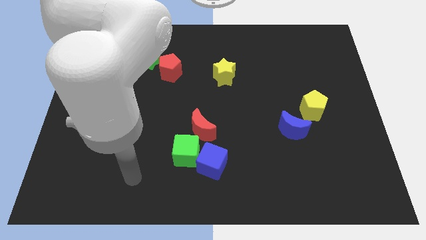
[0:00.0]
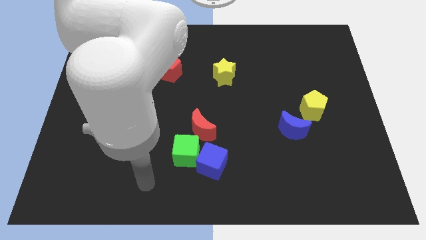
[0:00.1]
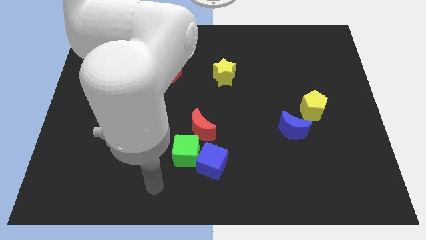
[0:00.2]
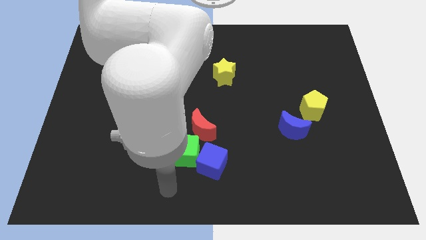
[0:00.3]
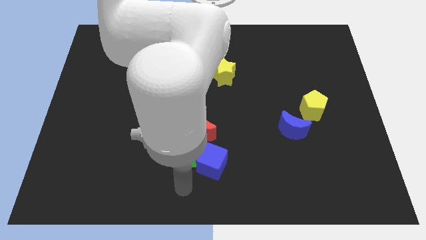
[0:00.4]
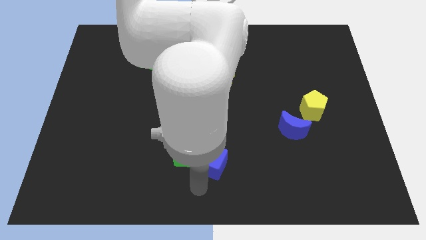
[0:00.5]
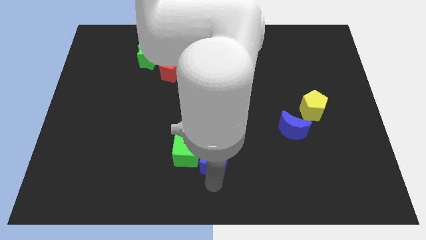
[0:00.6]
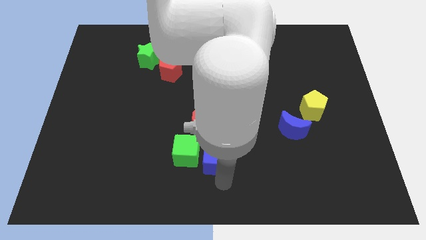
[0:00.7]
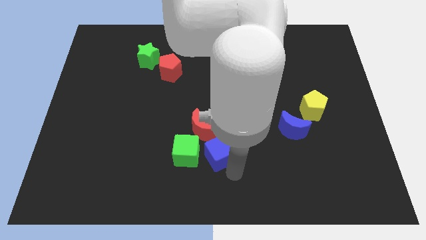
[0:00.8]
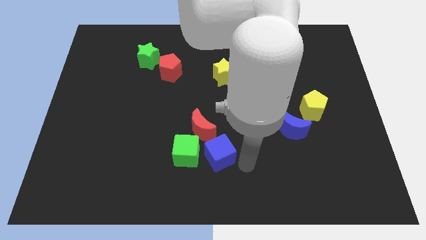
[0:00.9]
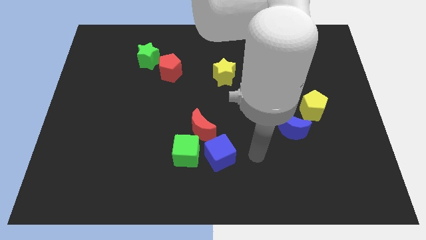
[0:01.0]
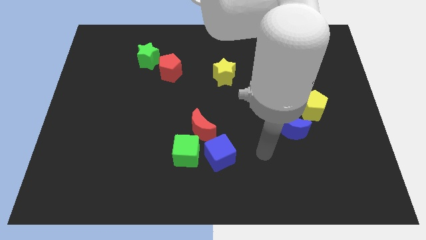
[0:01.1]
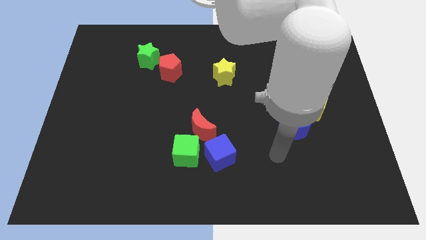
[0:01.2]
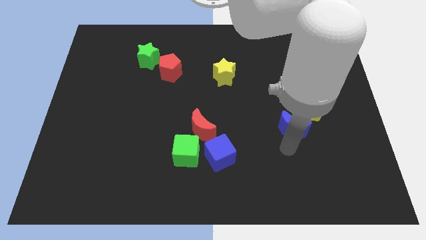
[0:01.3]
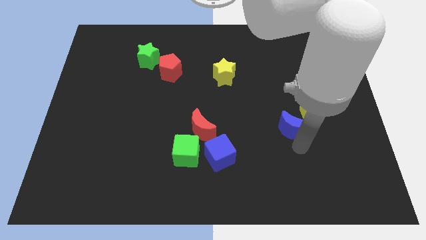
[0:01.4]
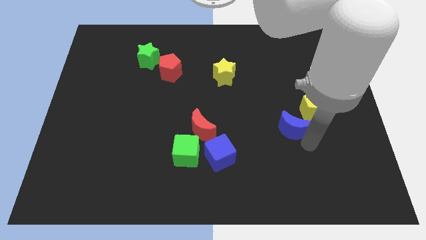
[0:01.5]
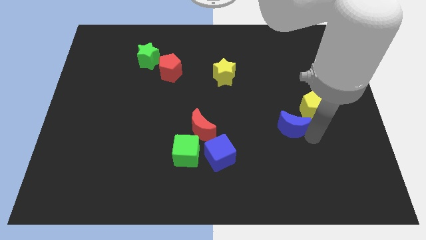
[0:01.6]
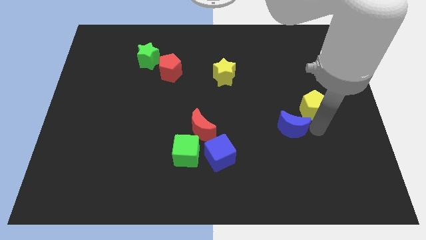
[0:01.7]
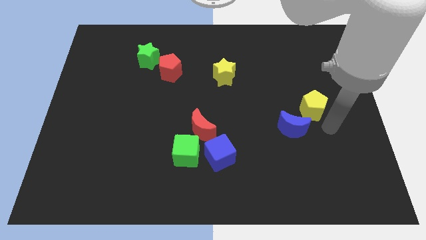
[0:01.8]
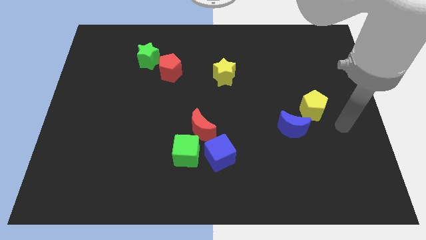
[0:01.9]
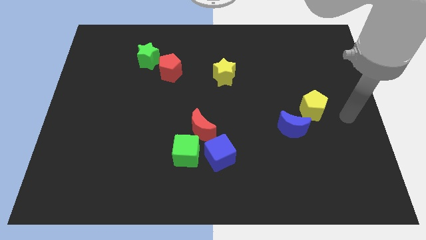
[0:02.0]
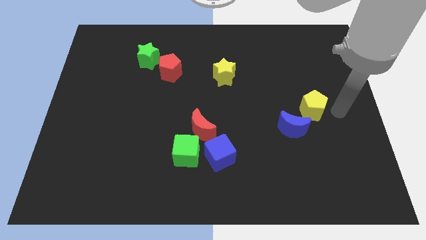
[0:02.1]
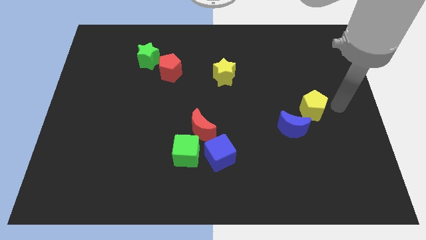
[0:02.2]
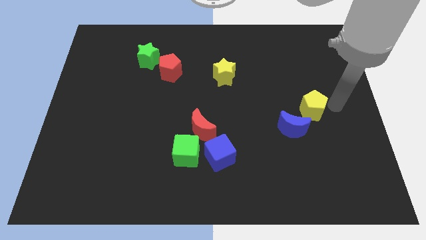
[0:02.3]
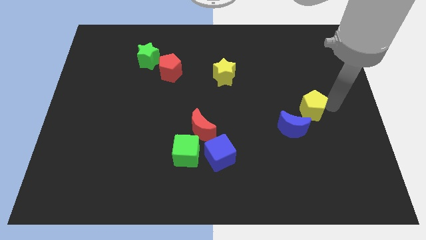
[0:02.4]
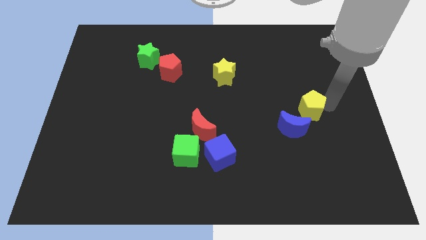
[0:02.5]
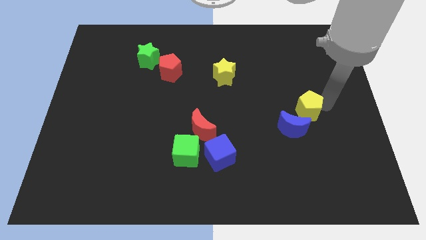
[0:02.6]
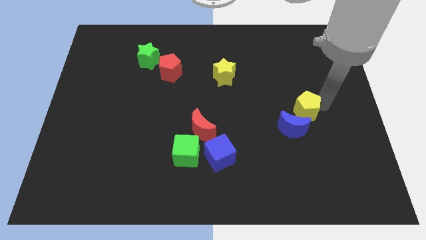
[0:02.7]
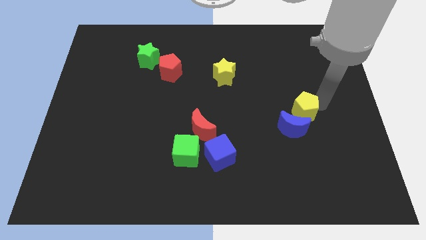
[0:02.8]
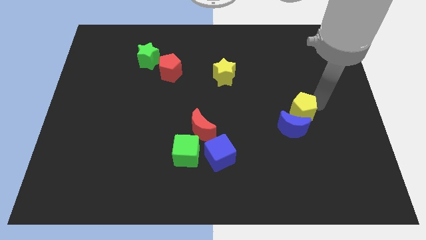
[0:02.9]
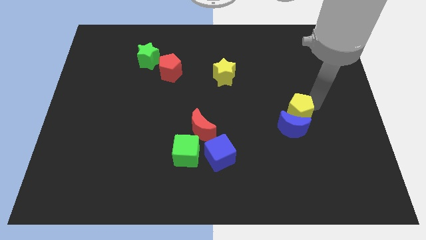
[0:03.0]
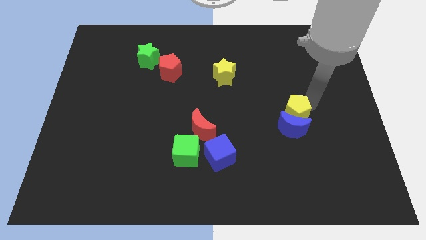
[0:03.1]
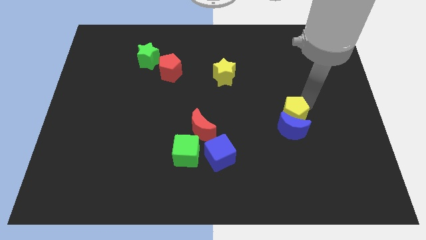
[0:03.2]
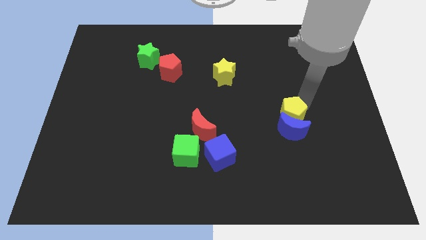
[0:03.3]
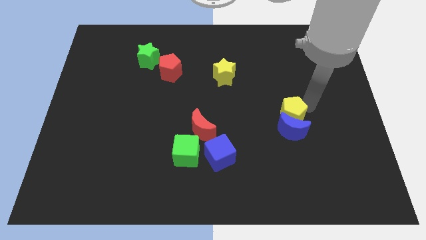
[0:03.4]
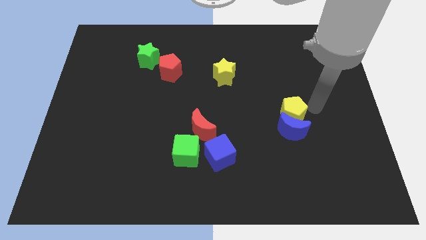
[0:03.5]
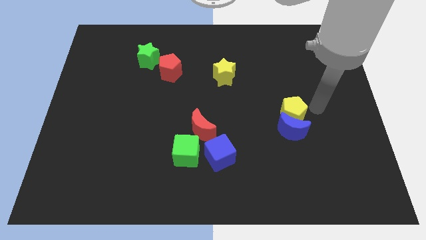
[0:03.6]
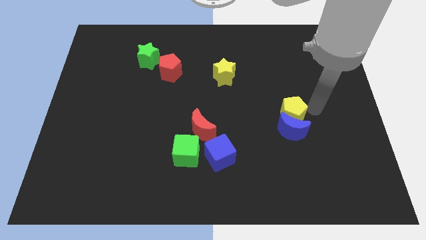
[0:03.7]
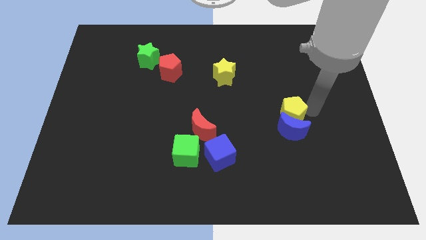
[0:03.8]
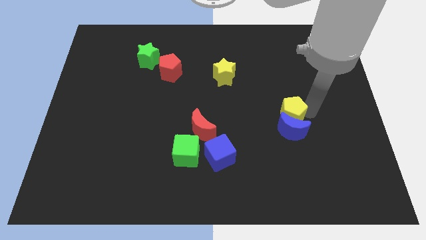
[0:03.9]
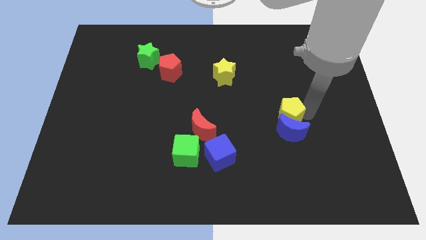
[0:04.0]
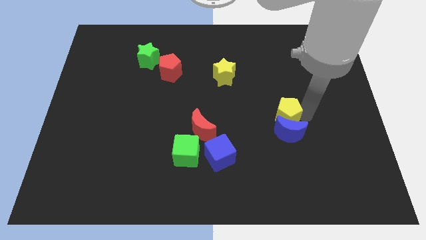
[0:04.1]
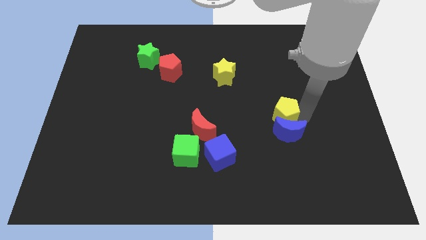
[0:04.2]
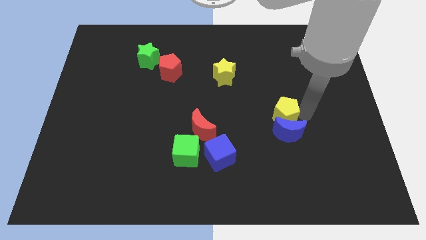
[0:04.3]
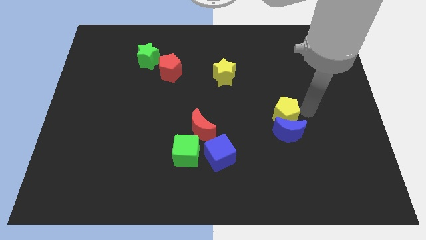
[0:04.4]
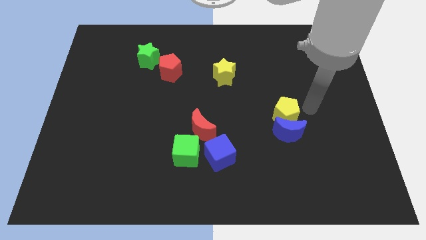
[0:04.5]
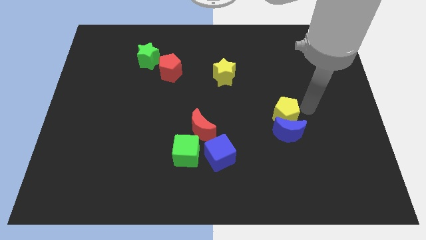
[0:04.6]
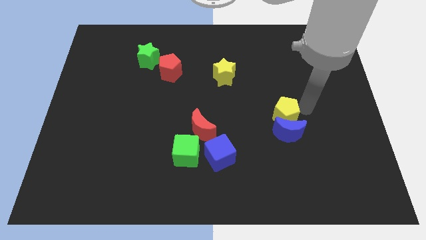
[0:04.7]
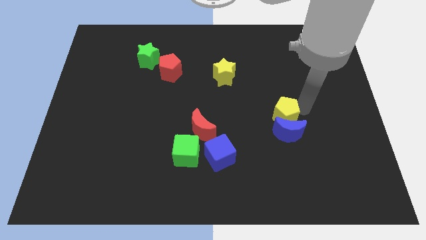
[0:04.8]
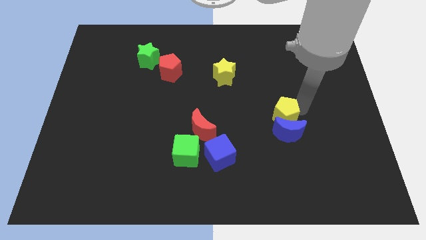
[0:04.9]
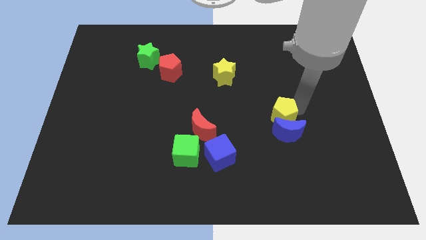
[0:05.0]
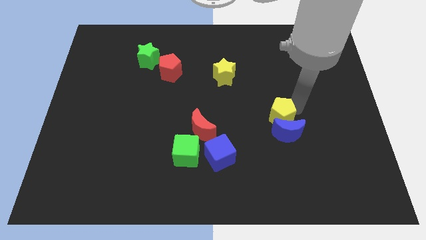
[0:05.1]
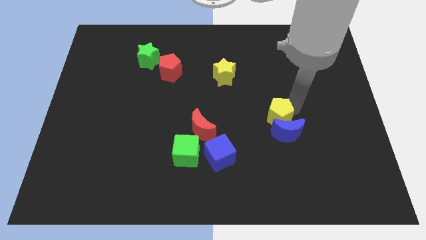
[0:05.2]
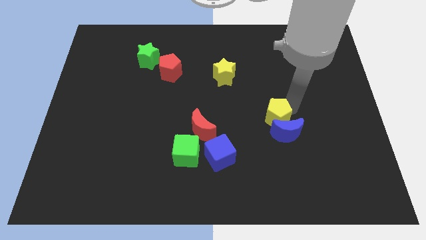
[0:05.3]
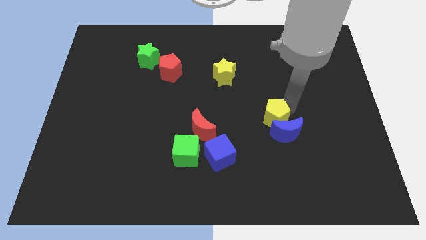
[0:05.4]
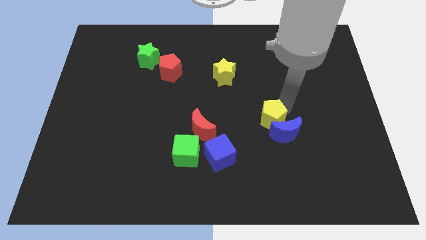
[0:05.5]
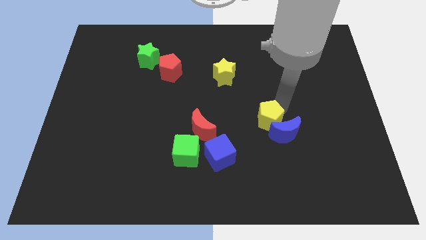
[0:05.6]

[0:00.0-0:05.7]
move the yellow pentagon left of the blue moon

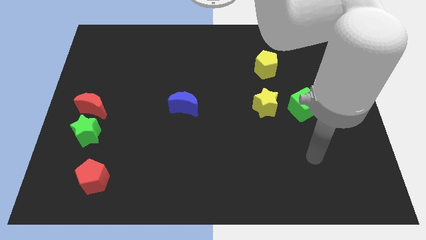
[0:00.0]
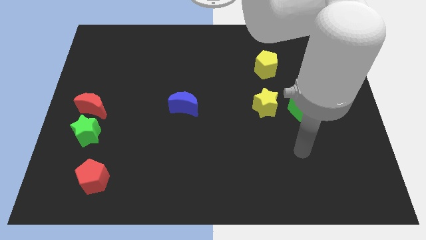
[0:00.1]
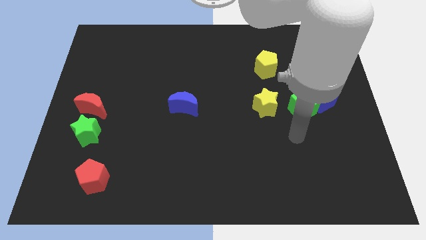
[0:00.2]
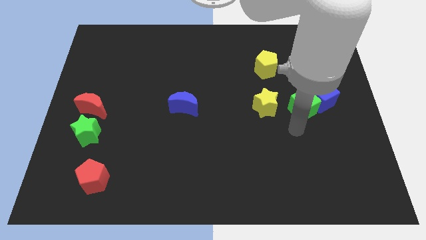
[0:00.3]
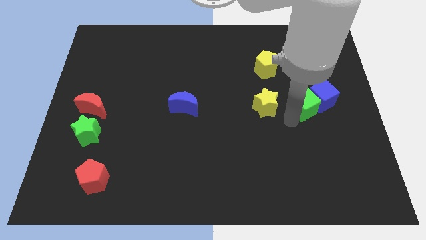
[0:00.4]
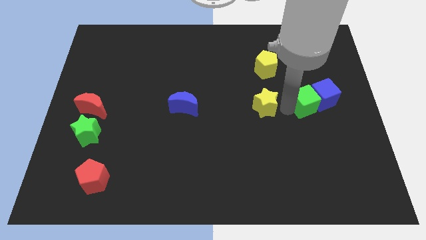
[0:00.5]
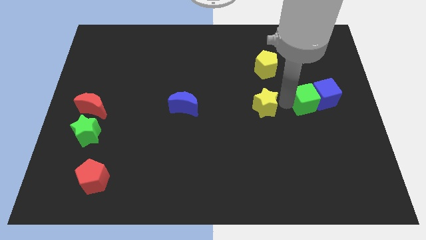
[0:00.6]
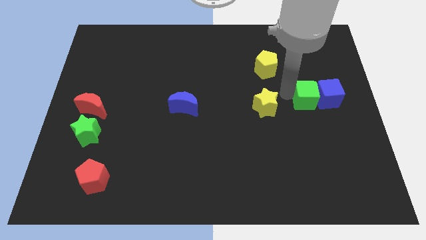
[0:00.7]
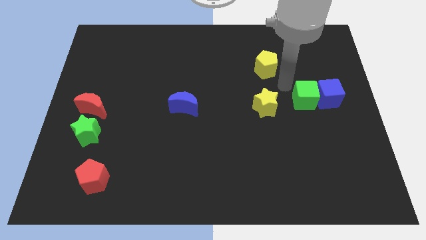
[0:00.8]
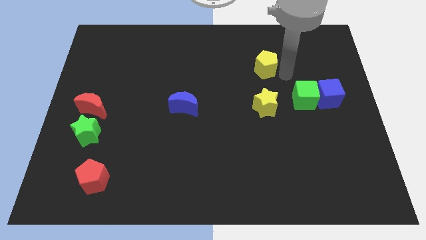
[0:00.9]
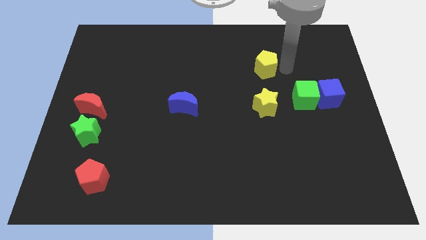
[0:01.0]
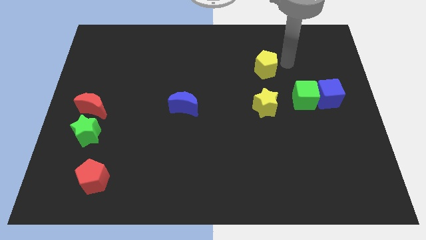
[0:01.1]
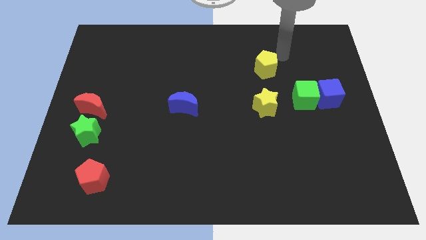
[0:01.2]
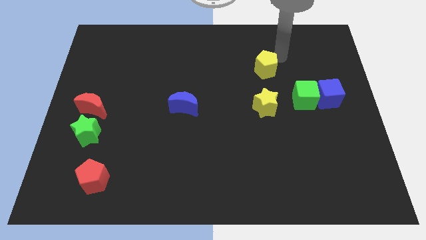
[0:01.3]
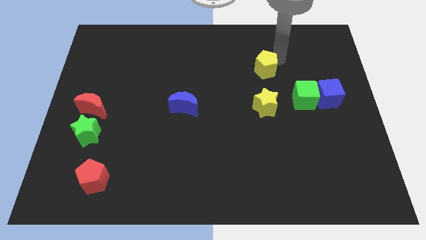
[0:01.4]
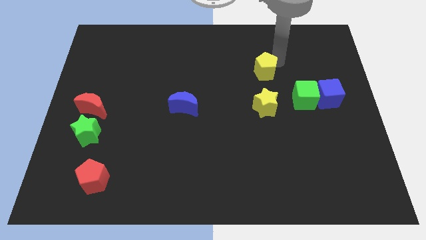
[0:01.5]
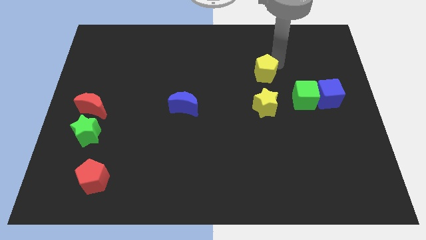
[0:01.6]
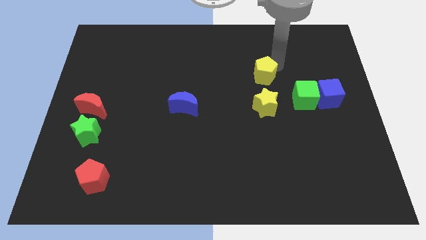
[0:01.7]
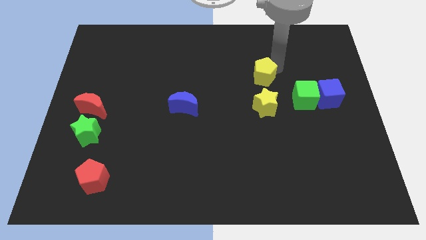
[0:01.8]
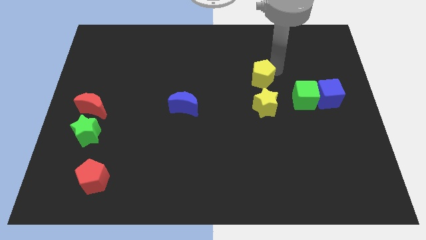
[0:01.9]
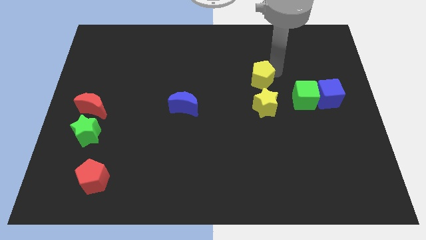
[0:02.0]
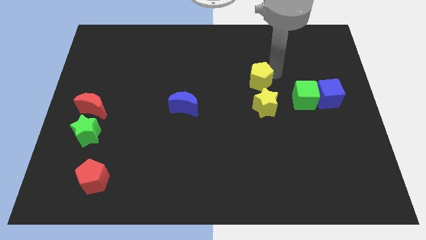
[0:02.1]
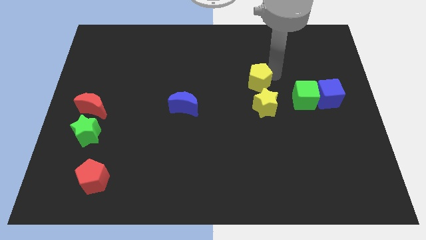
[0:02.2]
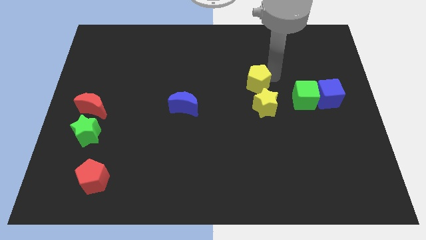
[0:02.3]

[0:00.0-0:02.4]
move the yellow pentagon left of the green cube

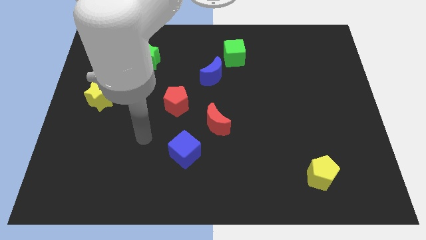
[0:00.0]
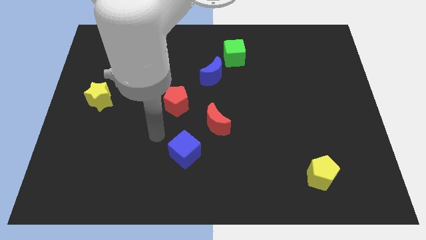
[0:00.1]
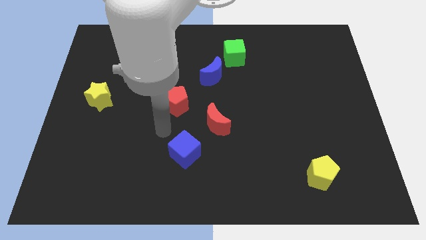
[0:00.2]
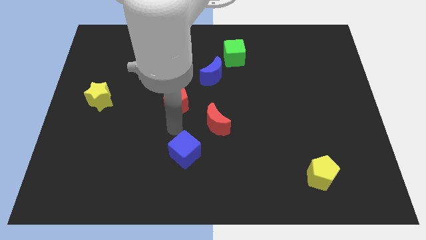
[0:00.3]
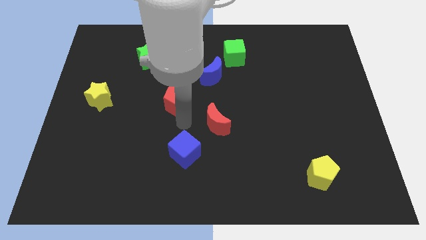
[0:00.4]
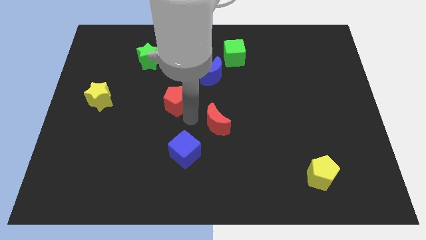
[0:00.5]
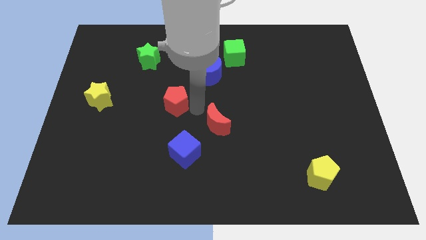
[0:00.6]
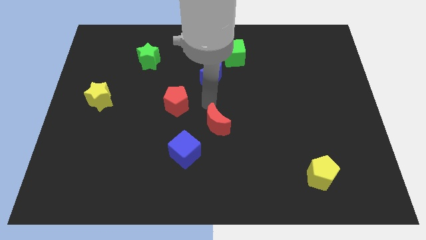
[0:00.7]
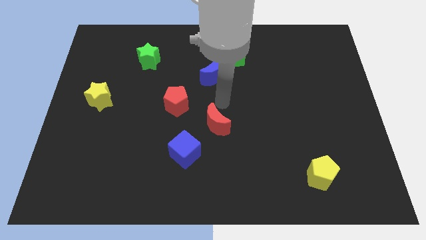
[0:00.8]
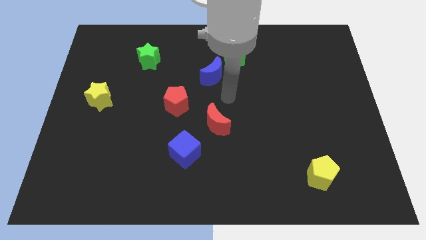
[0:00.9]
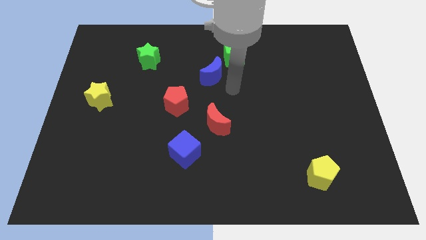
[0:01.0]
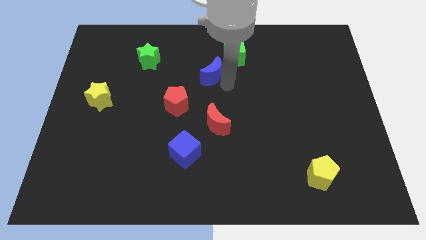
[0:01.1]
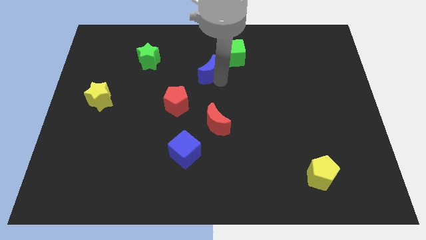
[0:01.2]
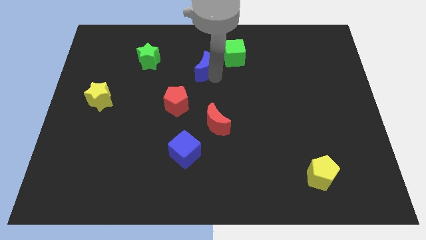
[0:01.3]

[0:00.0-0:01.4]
push the blue moon to the right side of the green star
